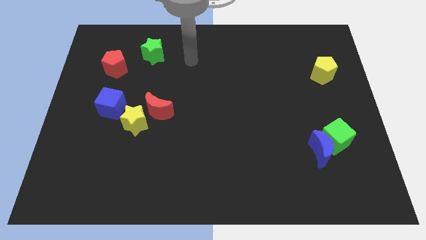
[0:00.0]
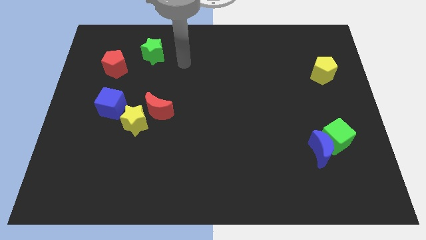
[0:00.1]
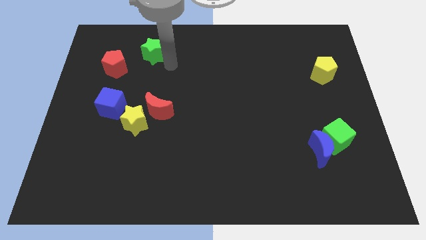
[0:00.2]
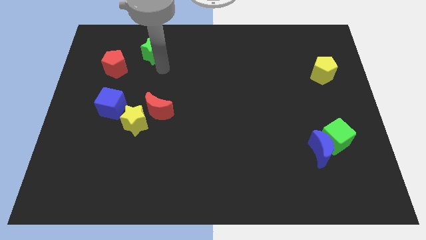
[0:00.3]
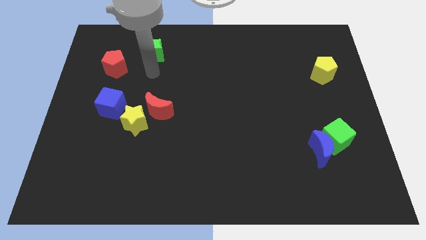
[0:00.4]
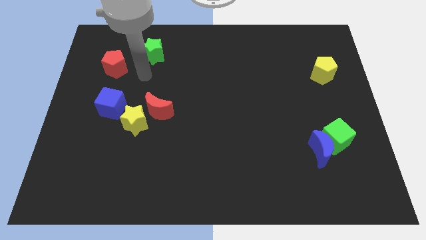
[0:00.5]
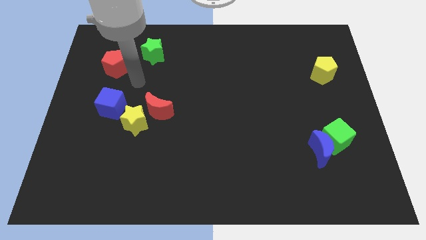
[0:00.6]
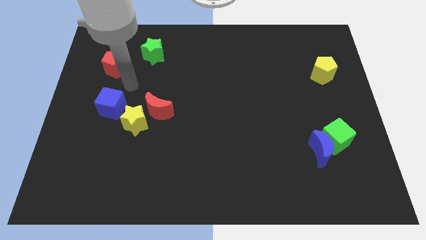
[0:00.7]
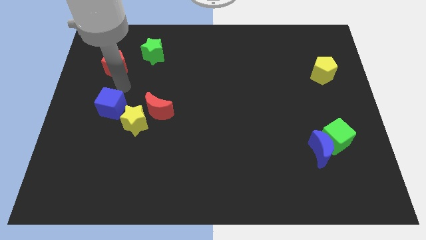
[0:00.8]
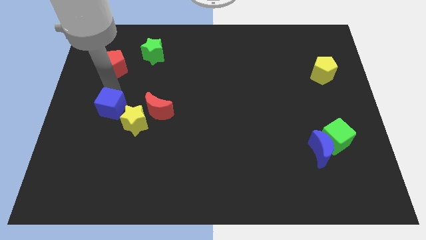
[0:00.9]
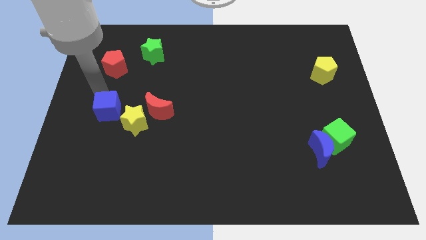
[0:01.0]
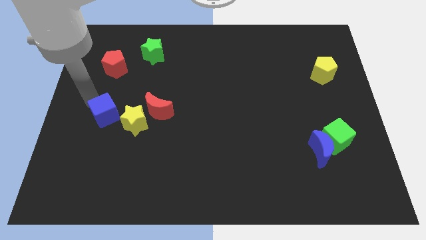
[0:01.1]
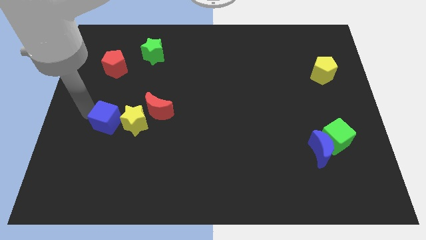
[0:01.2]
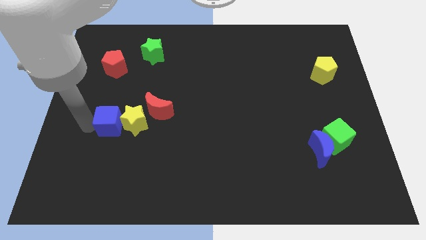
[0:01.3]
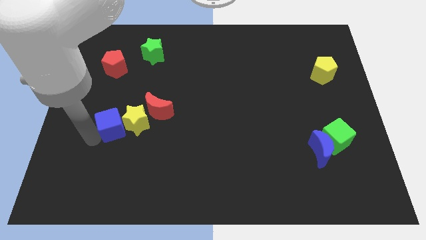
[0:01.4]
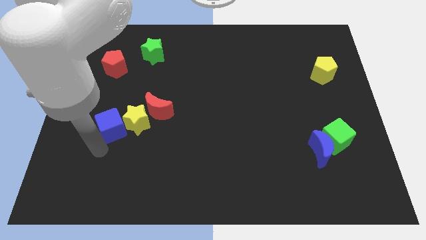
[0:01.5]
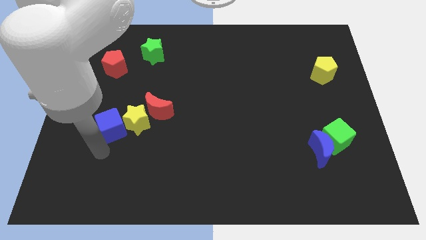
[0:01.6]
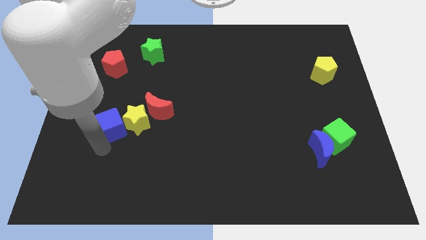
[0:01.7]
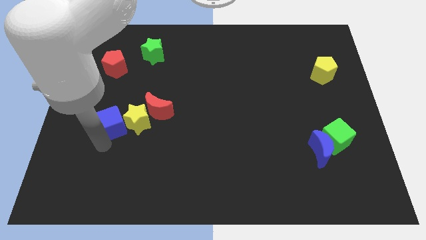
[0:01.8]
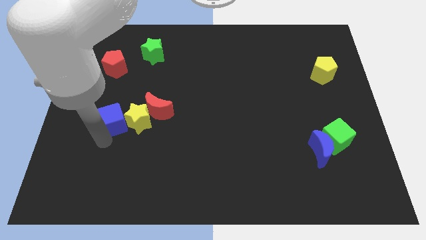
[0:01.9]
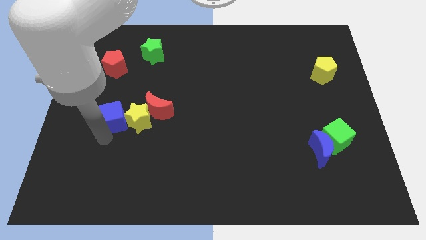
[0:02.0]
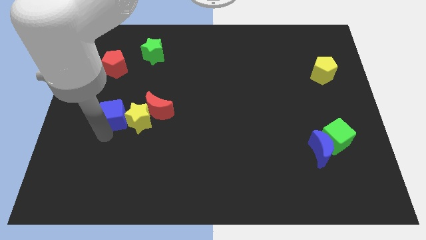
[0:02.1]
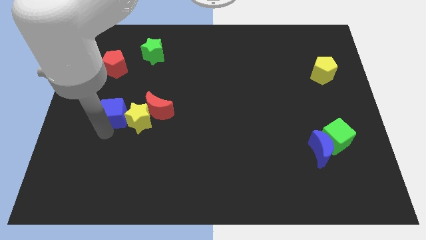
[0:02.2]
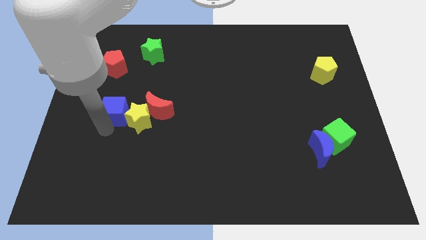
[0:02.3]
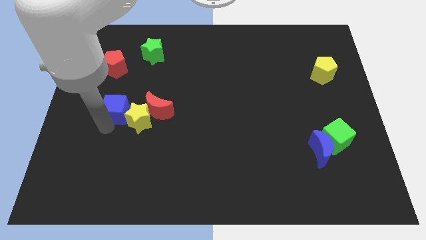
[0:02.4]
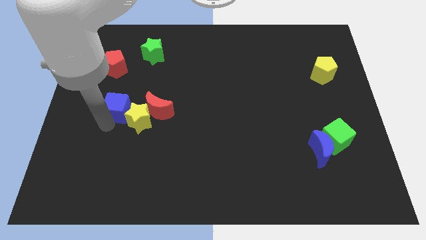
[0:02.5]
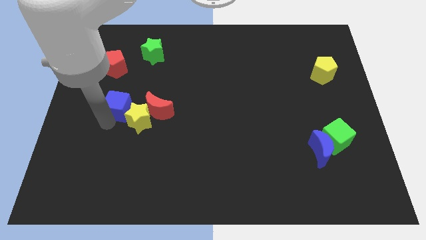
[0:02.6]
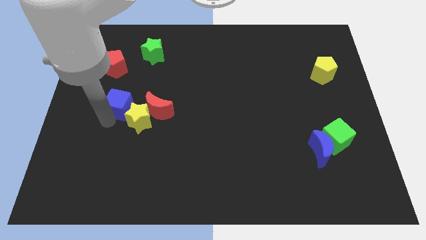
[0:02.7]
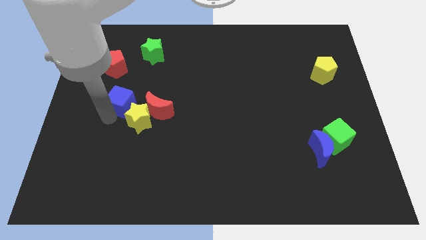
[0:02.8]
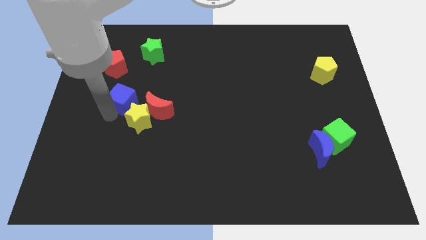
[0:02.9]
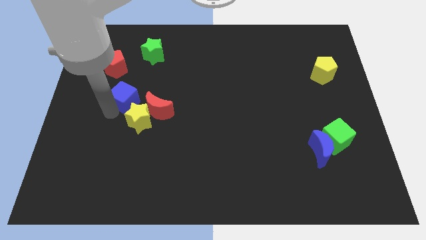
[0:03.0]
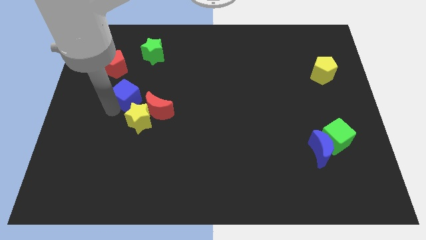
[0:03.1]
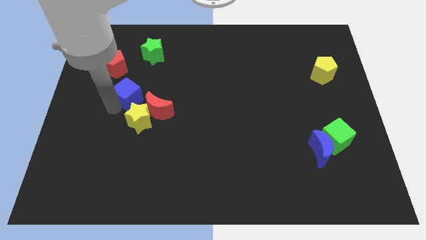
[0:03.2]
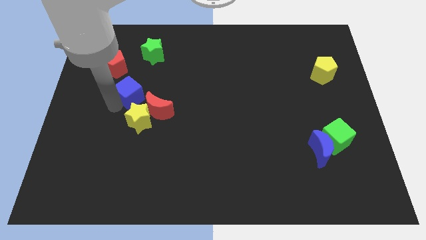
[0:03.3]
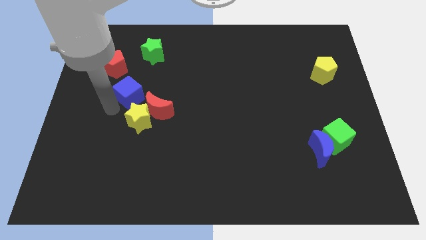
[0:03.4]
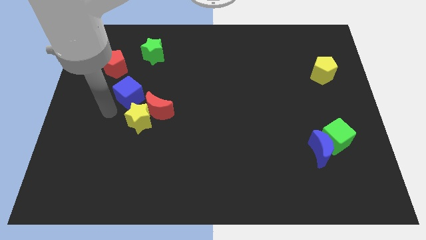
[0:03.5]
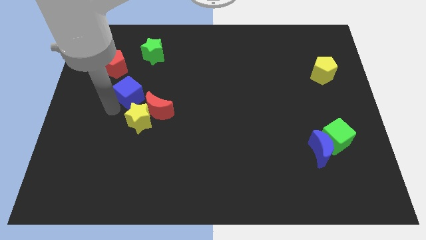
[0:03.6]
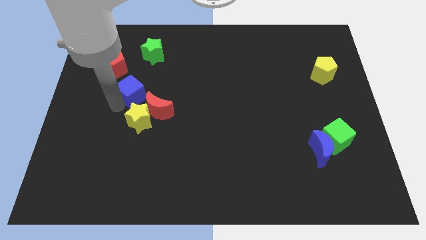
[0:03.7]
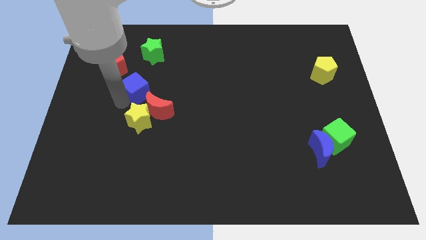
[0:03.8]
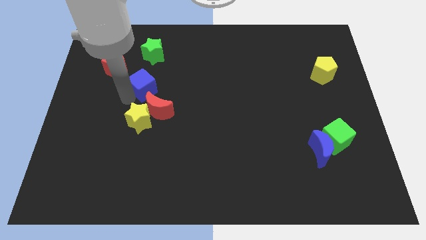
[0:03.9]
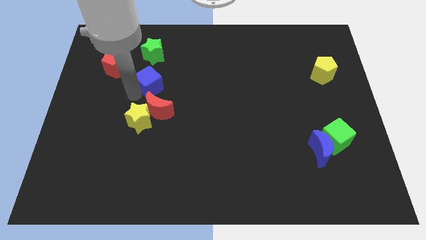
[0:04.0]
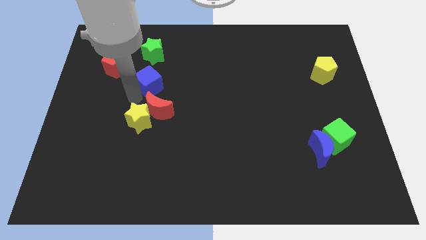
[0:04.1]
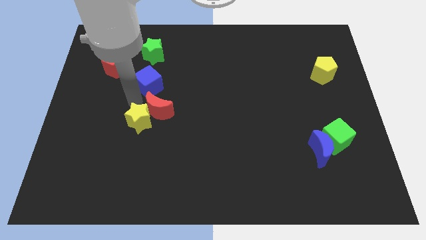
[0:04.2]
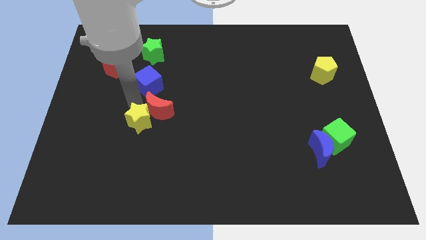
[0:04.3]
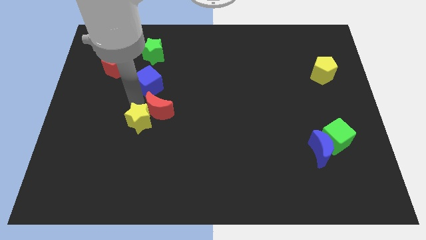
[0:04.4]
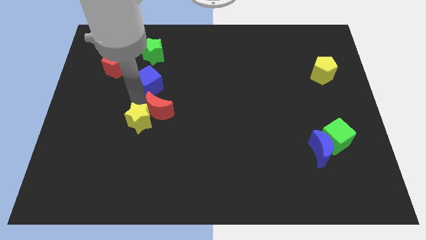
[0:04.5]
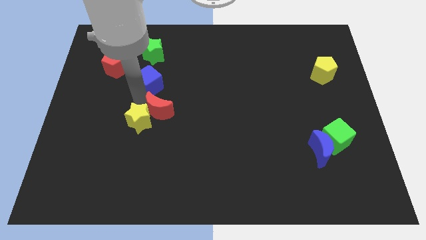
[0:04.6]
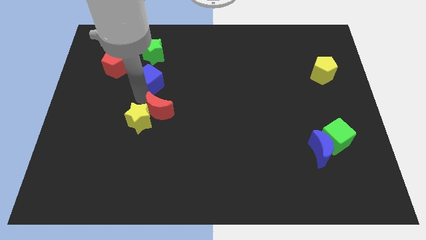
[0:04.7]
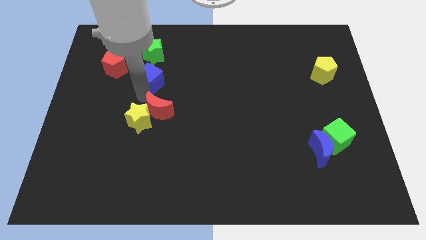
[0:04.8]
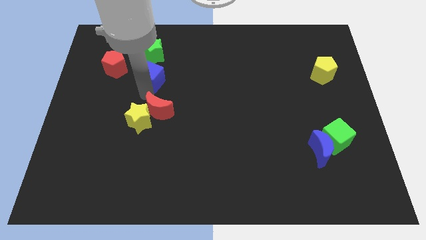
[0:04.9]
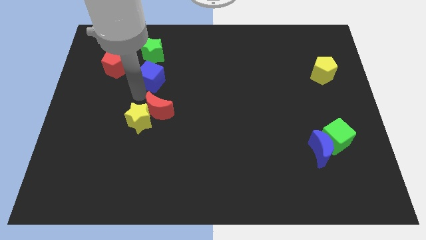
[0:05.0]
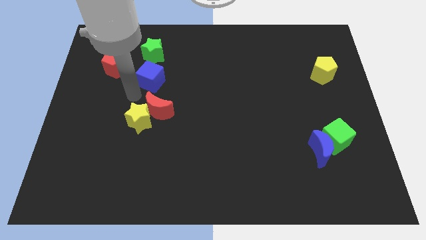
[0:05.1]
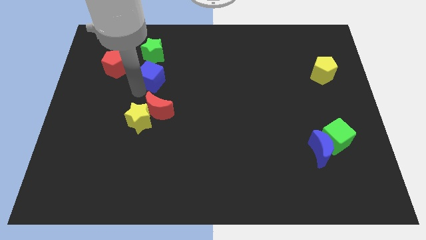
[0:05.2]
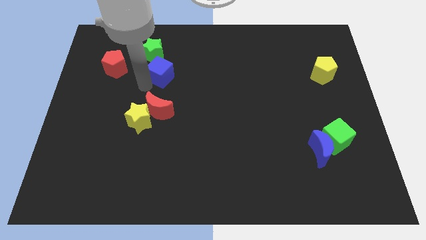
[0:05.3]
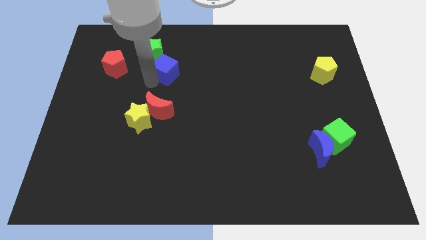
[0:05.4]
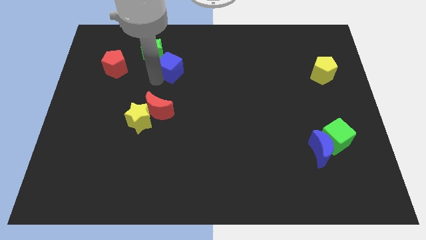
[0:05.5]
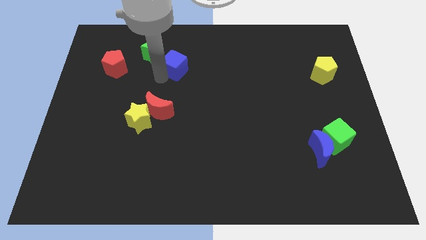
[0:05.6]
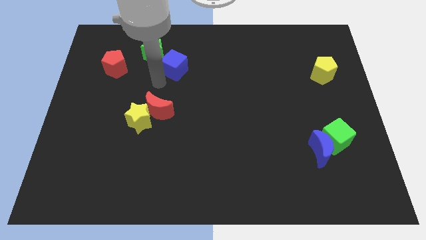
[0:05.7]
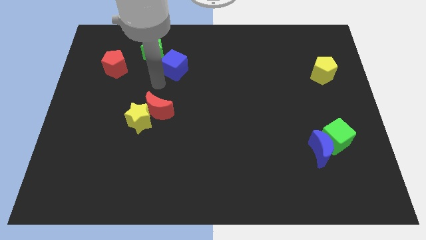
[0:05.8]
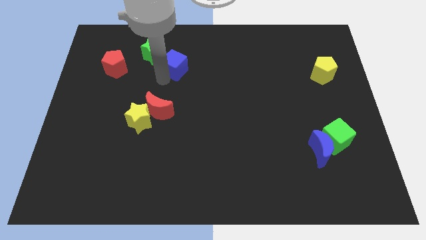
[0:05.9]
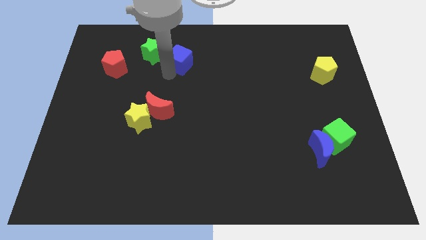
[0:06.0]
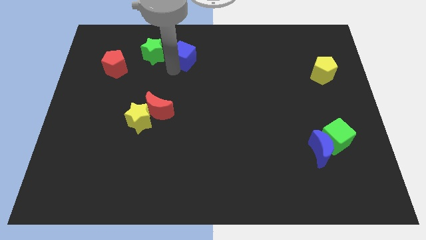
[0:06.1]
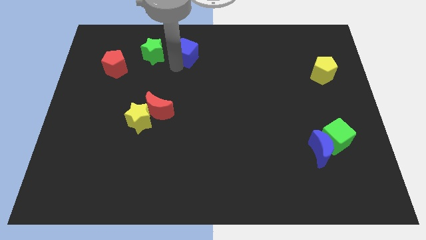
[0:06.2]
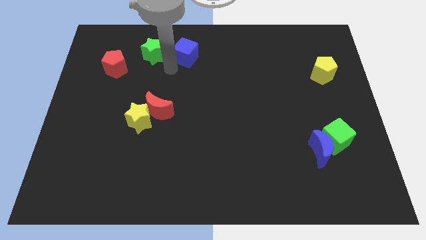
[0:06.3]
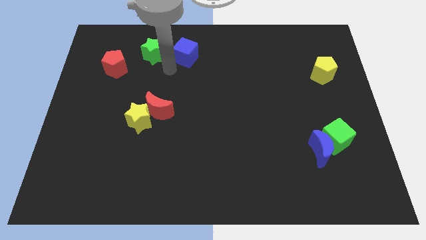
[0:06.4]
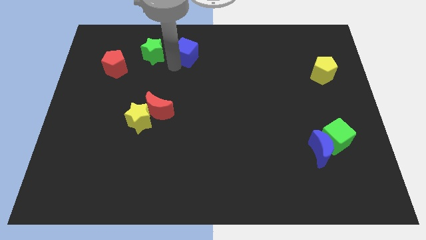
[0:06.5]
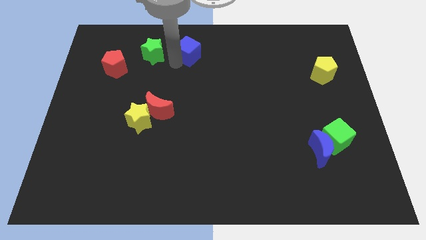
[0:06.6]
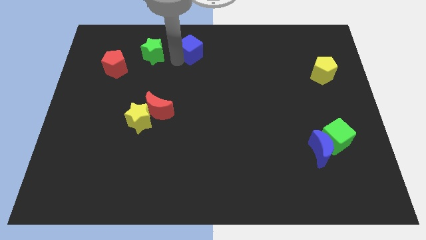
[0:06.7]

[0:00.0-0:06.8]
move the blue cube to the top side
